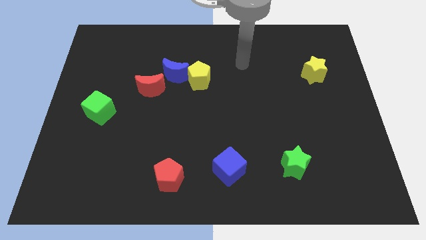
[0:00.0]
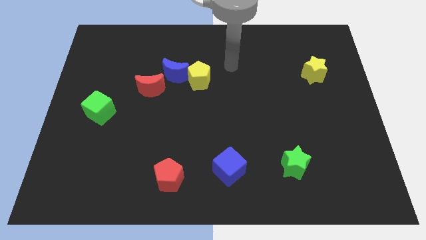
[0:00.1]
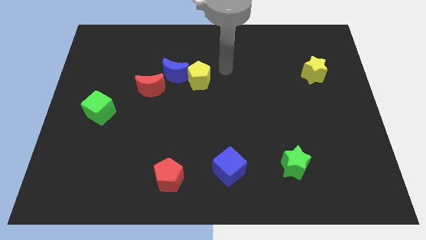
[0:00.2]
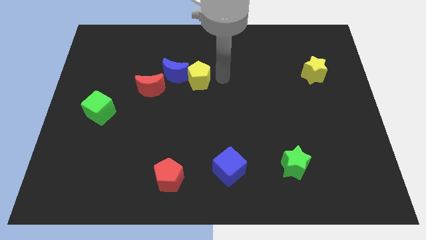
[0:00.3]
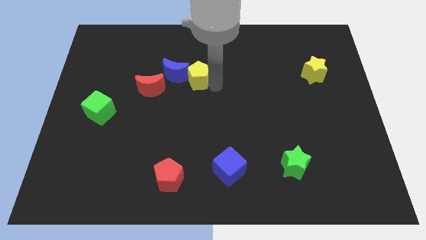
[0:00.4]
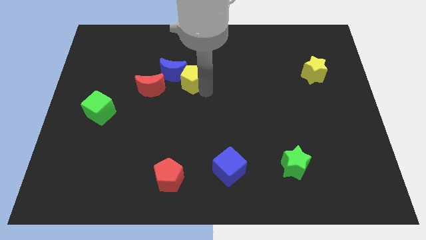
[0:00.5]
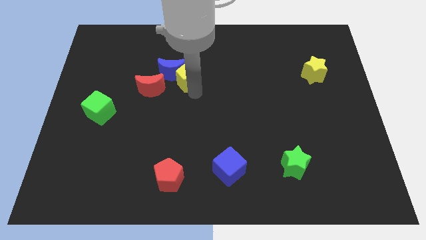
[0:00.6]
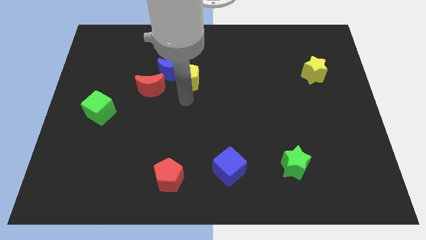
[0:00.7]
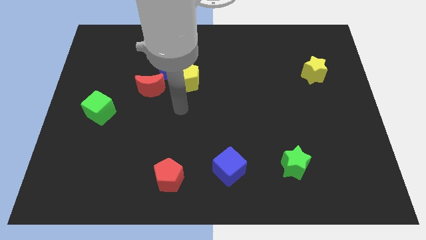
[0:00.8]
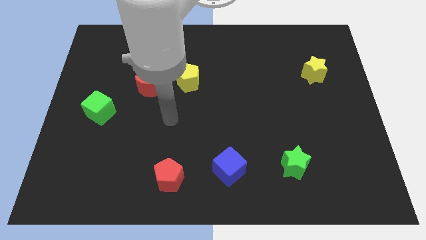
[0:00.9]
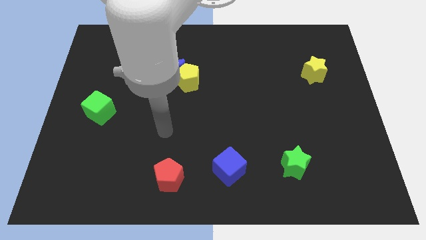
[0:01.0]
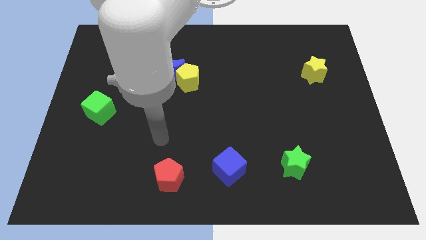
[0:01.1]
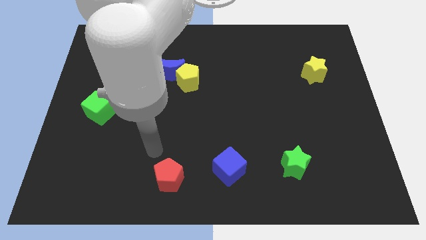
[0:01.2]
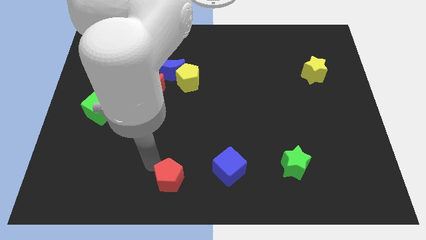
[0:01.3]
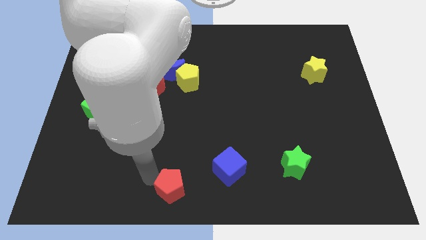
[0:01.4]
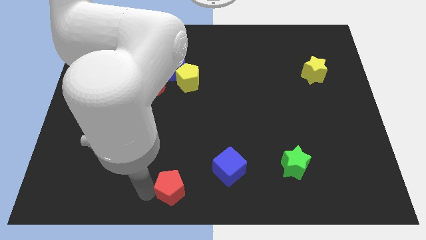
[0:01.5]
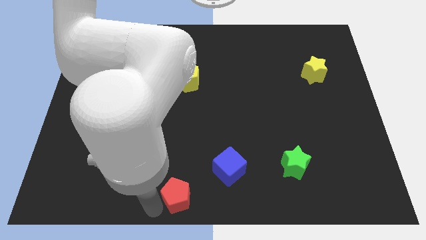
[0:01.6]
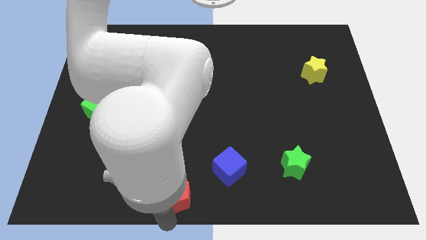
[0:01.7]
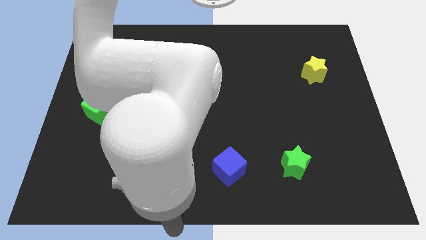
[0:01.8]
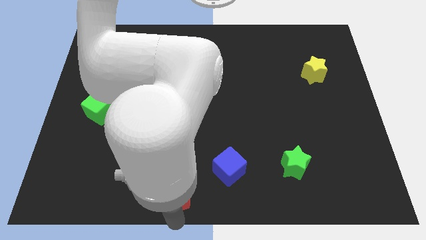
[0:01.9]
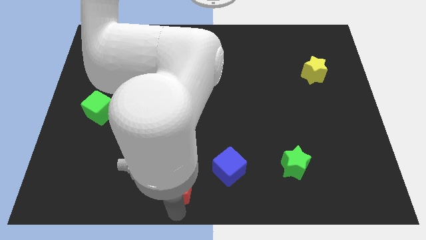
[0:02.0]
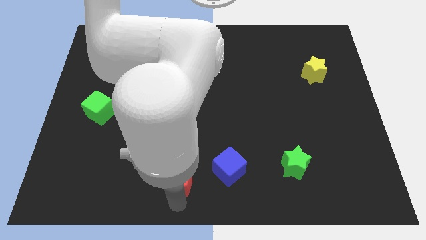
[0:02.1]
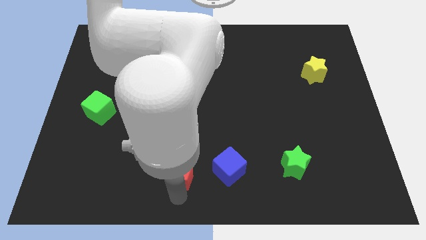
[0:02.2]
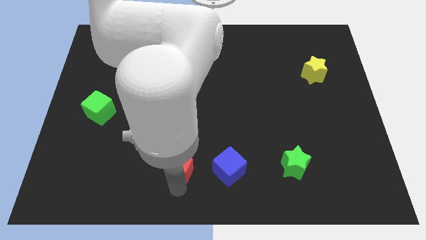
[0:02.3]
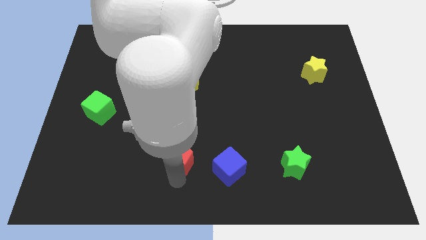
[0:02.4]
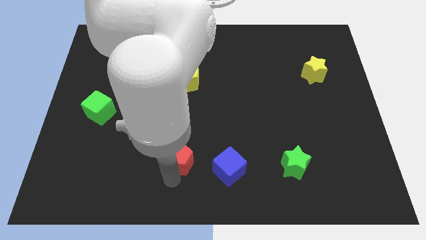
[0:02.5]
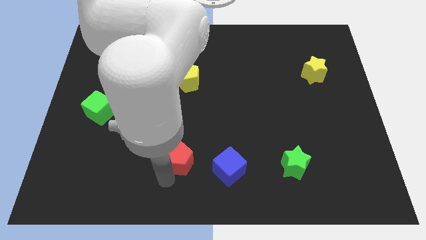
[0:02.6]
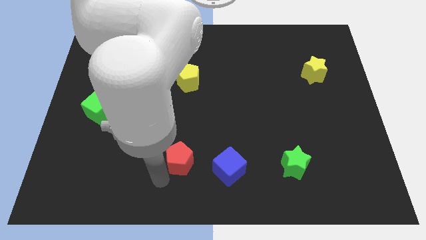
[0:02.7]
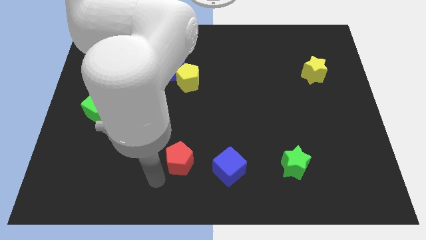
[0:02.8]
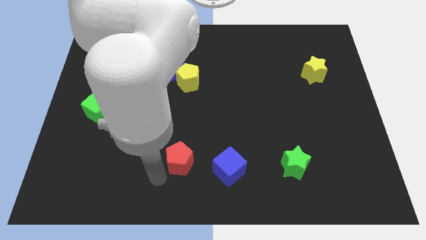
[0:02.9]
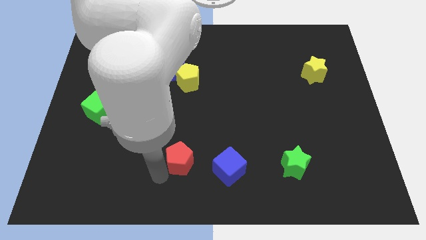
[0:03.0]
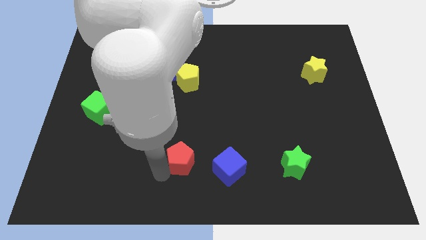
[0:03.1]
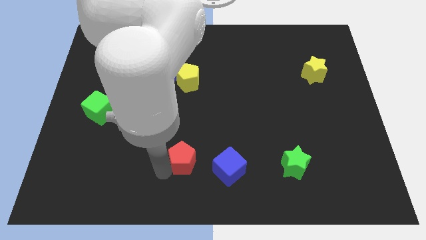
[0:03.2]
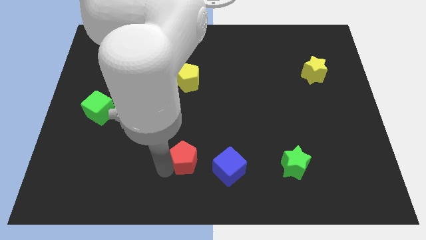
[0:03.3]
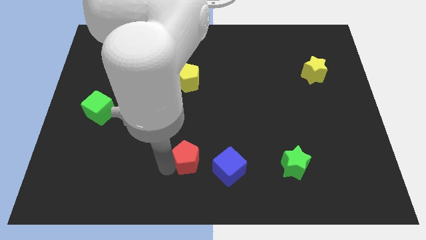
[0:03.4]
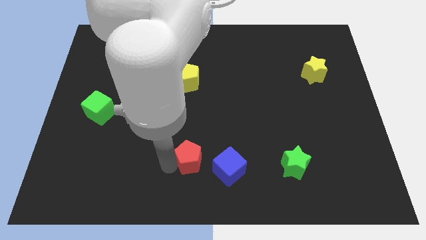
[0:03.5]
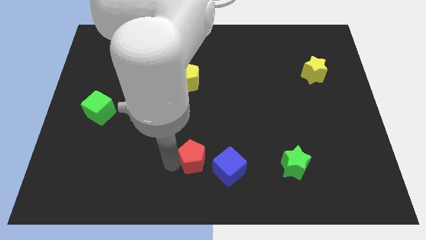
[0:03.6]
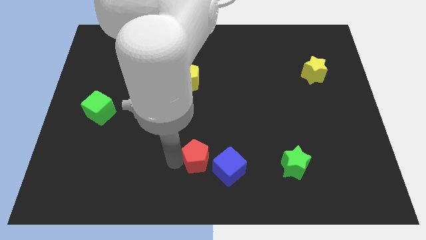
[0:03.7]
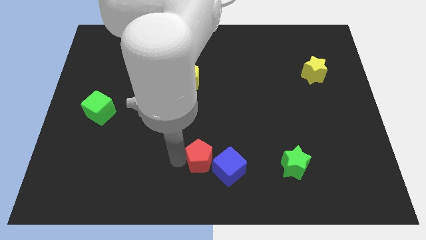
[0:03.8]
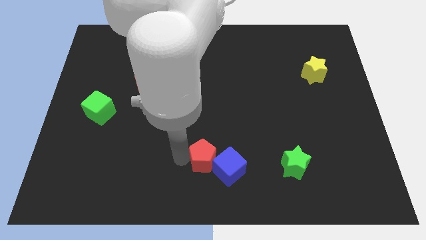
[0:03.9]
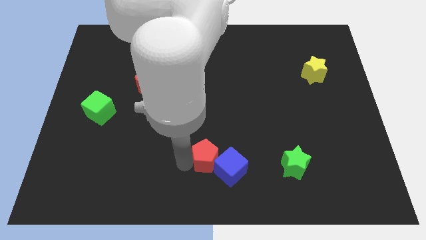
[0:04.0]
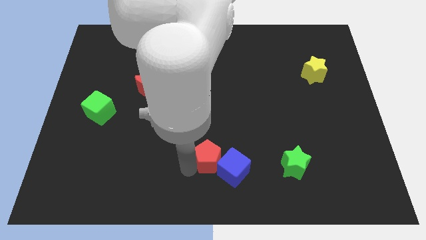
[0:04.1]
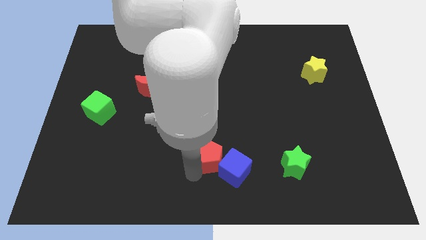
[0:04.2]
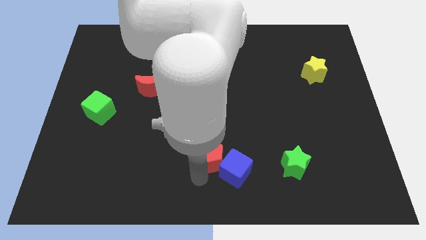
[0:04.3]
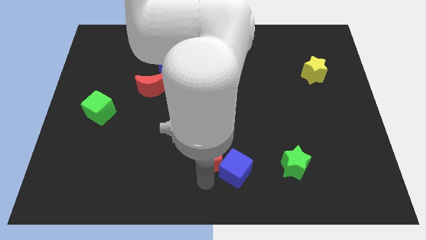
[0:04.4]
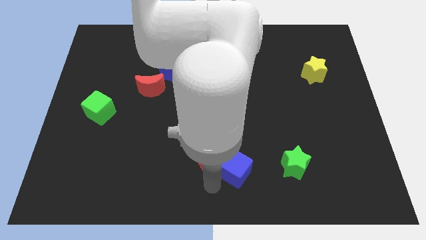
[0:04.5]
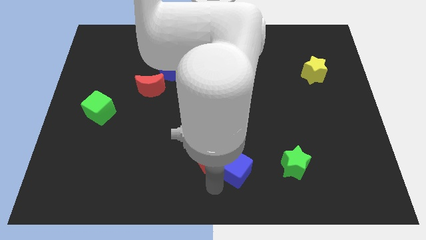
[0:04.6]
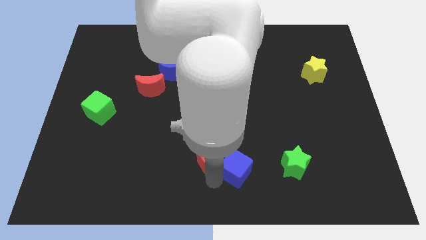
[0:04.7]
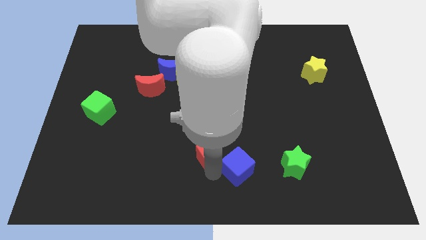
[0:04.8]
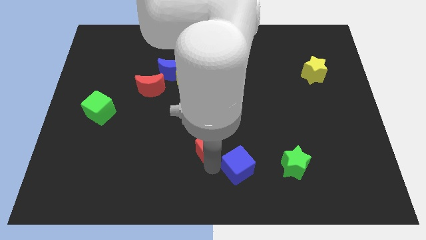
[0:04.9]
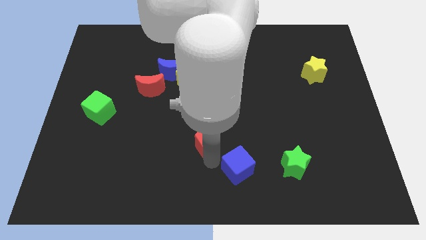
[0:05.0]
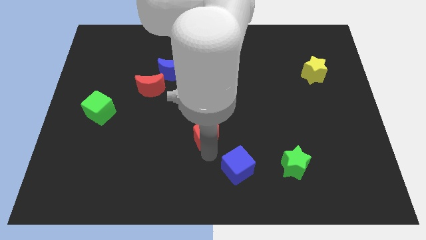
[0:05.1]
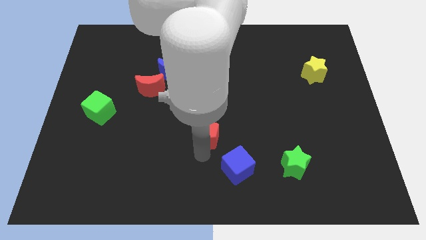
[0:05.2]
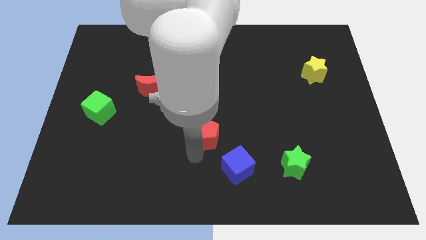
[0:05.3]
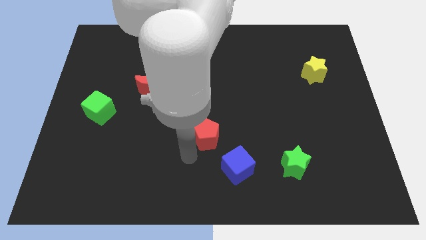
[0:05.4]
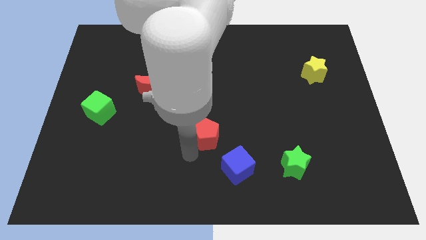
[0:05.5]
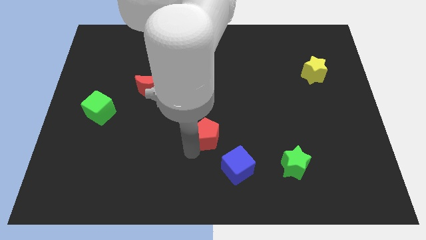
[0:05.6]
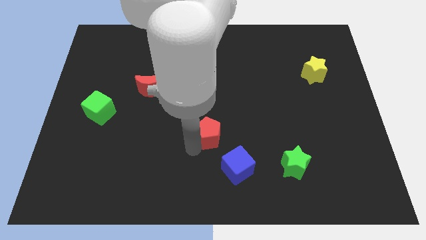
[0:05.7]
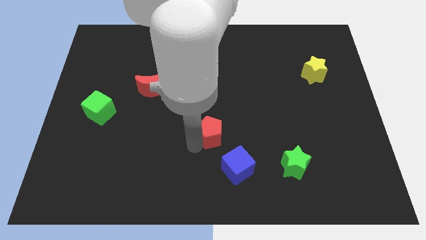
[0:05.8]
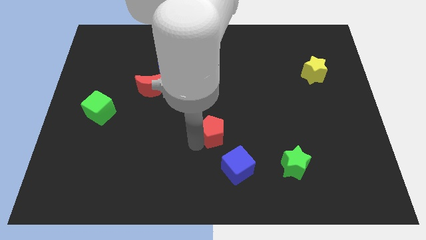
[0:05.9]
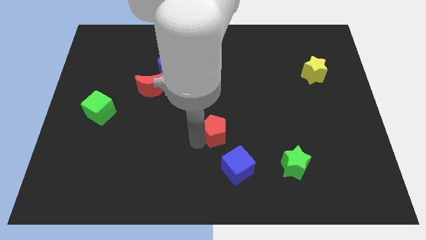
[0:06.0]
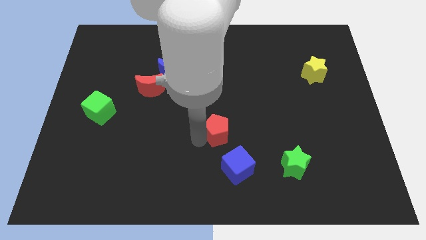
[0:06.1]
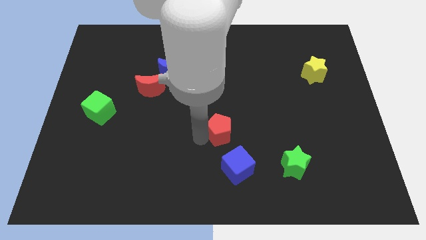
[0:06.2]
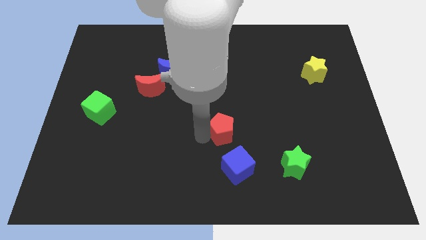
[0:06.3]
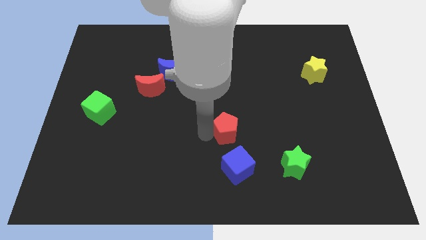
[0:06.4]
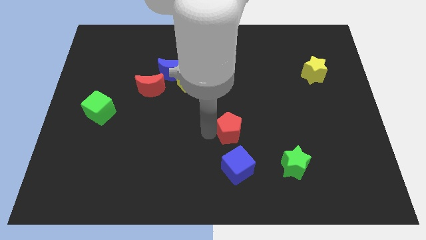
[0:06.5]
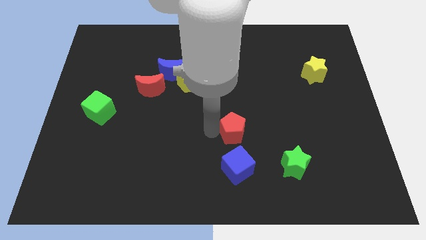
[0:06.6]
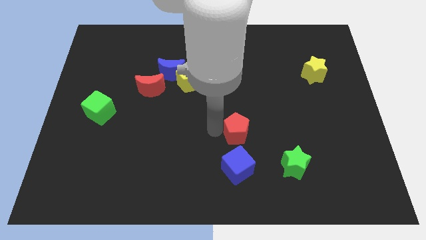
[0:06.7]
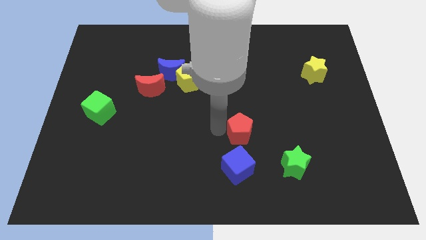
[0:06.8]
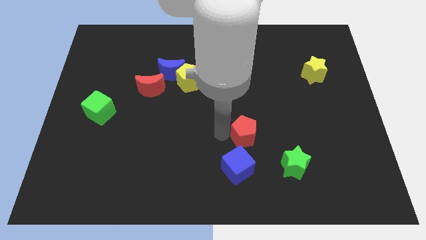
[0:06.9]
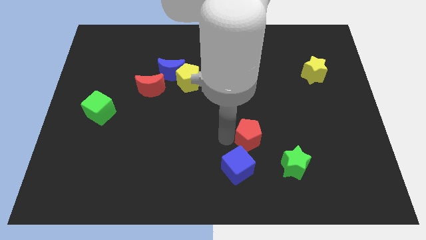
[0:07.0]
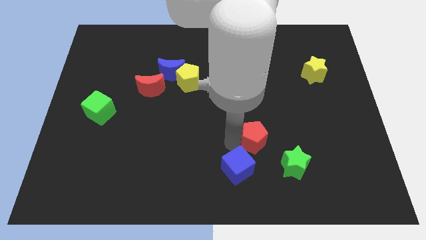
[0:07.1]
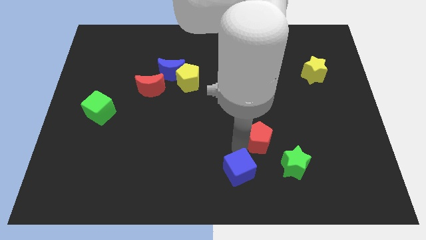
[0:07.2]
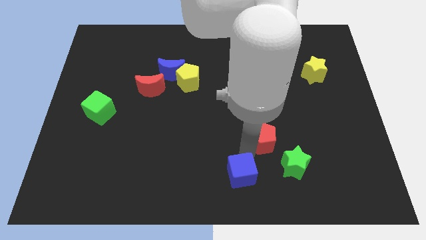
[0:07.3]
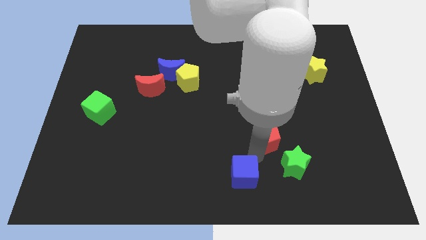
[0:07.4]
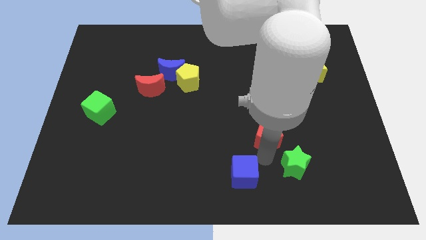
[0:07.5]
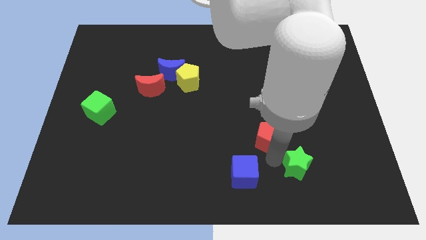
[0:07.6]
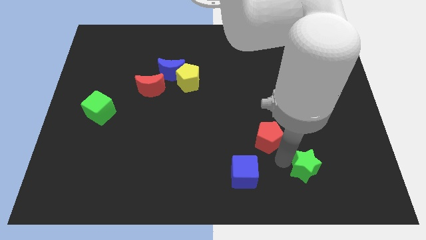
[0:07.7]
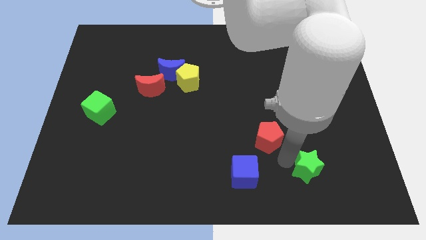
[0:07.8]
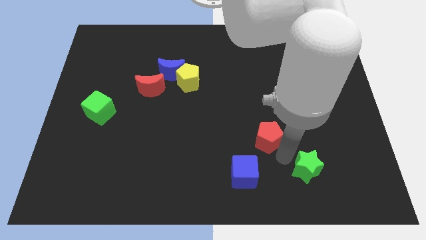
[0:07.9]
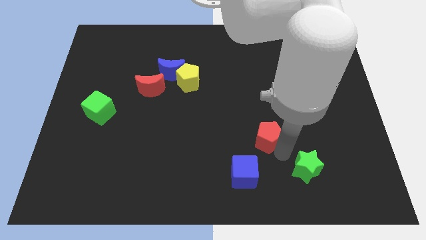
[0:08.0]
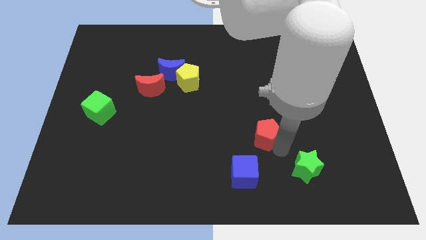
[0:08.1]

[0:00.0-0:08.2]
slide the red pentagon up and to the right diagonally
